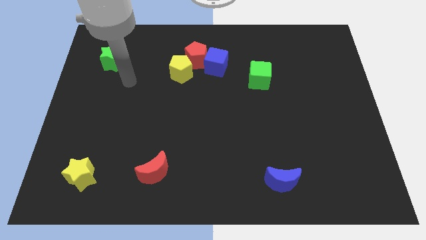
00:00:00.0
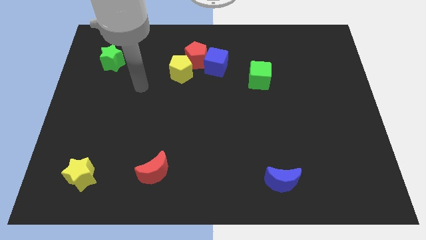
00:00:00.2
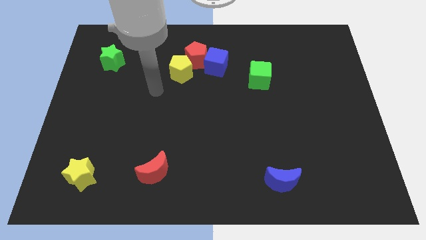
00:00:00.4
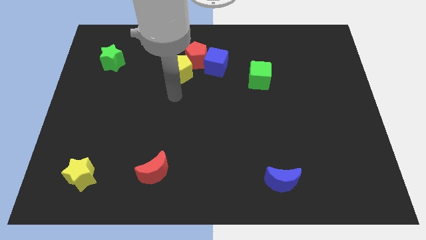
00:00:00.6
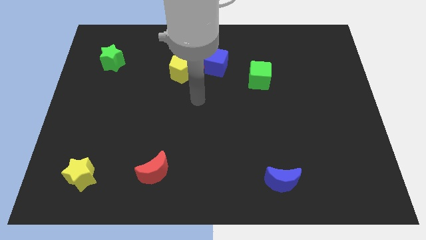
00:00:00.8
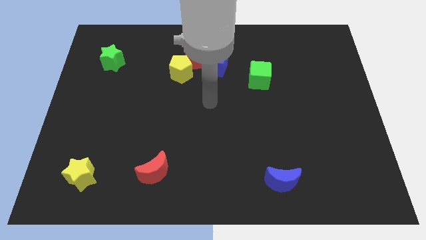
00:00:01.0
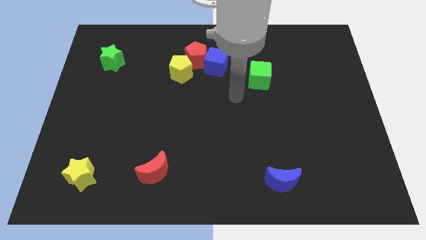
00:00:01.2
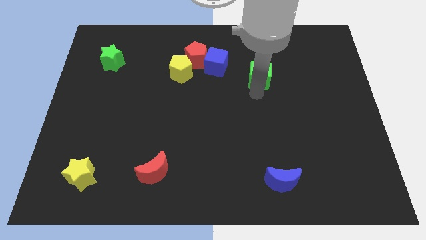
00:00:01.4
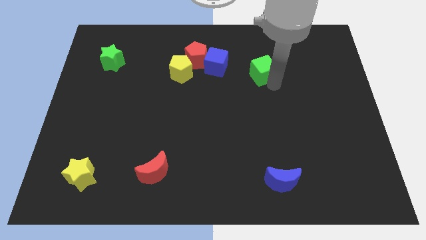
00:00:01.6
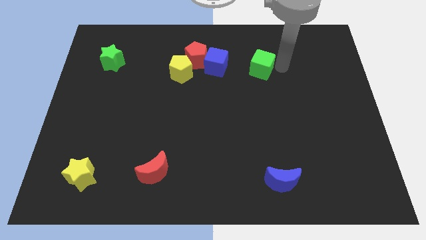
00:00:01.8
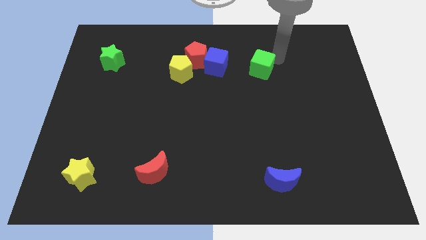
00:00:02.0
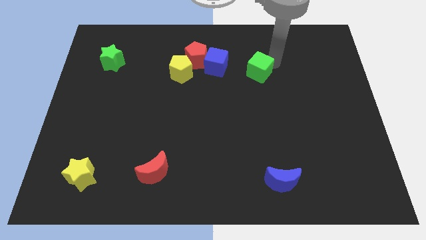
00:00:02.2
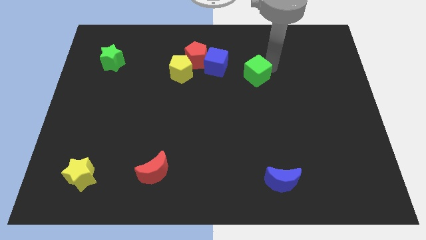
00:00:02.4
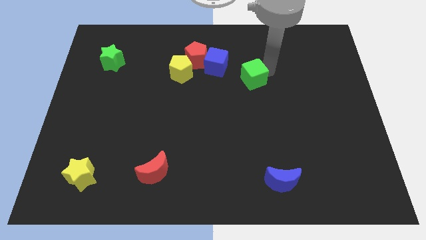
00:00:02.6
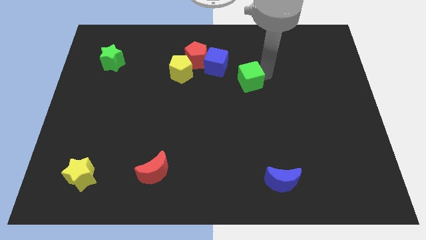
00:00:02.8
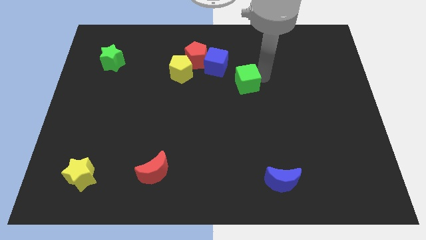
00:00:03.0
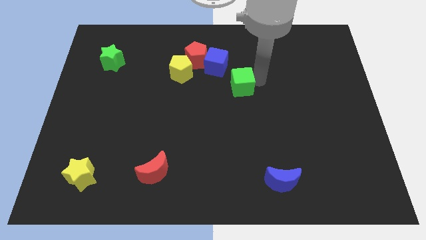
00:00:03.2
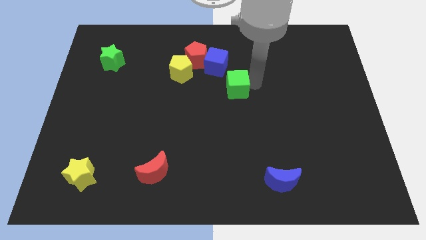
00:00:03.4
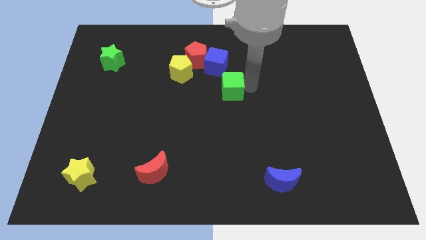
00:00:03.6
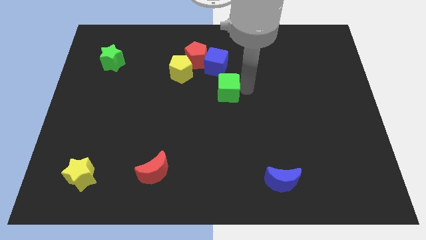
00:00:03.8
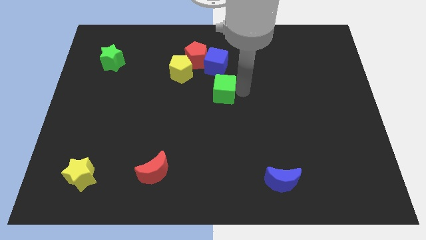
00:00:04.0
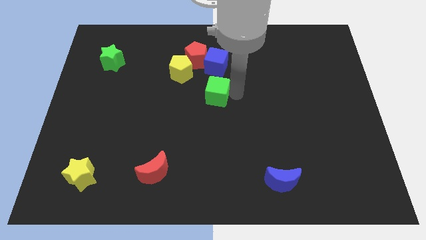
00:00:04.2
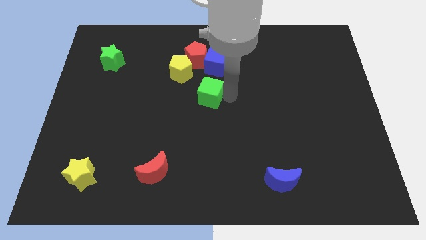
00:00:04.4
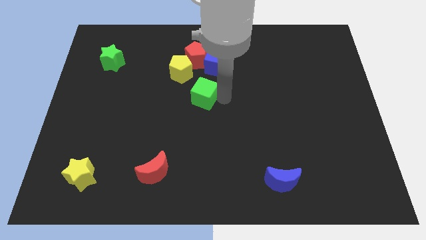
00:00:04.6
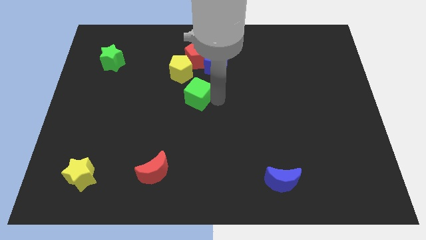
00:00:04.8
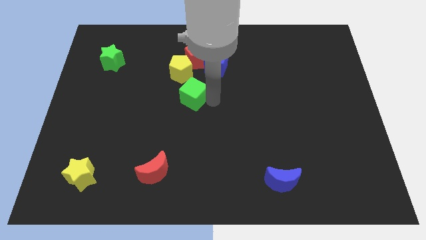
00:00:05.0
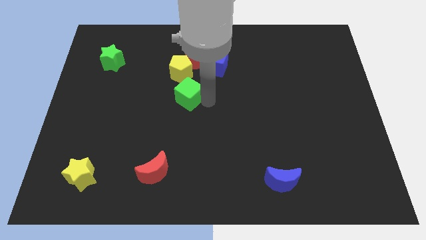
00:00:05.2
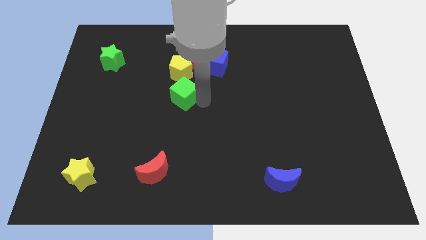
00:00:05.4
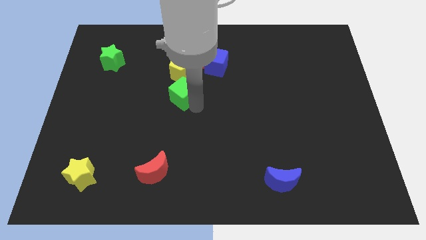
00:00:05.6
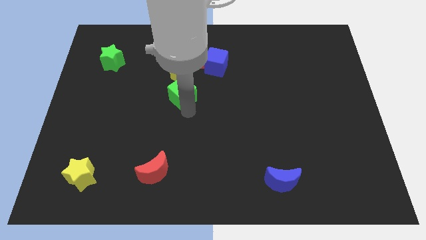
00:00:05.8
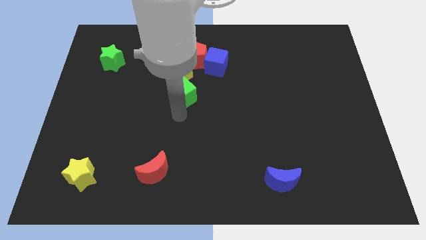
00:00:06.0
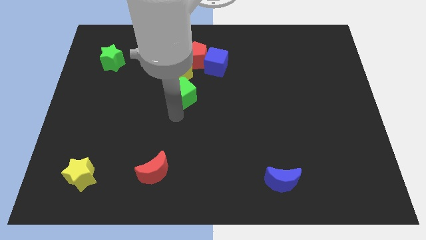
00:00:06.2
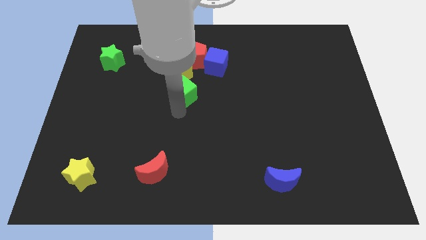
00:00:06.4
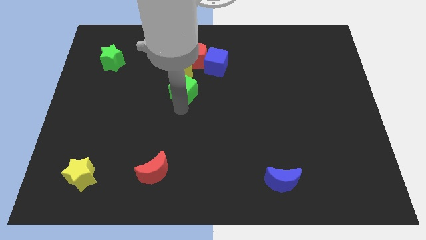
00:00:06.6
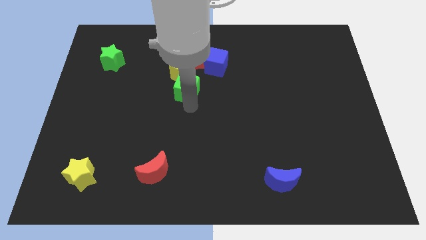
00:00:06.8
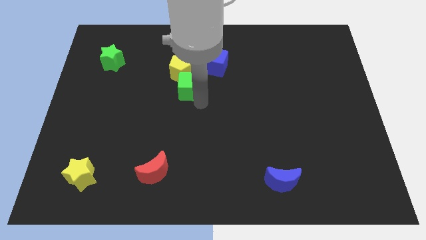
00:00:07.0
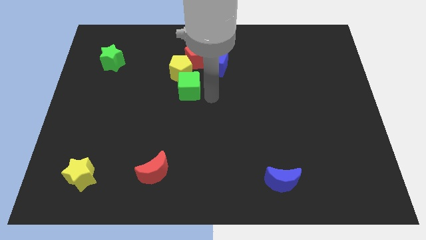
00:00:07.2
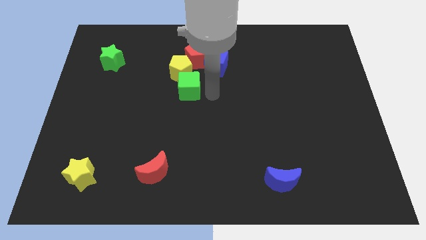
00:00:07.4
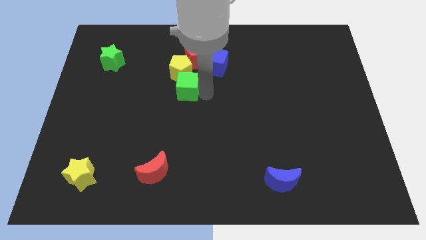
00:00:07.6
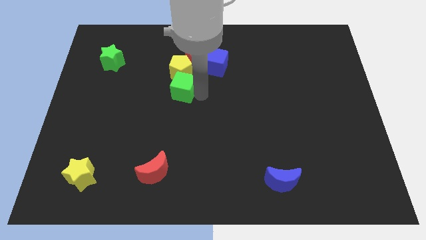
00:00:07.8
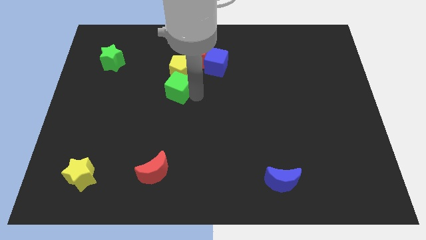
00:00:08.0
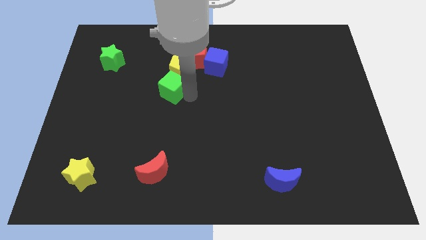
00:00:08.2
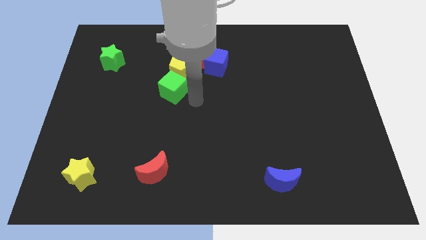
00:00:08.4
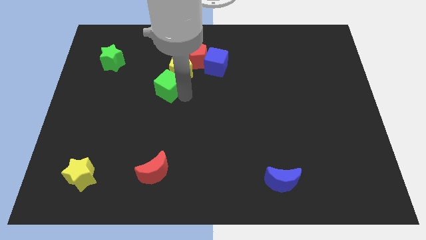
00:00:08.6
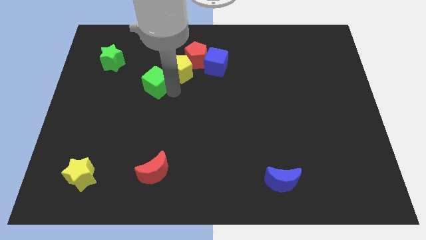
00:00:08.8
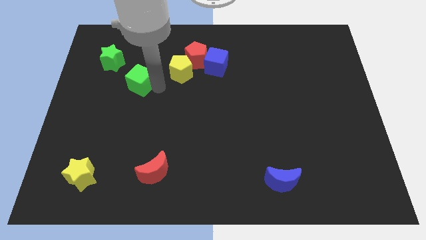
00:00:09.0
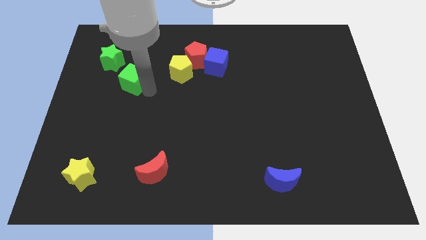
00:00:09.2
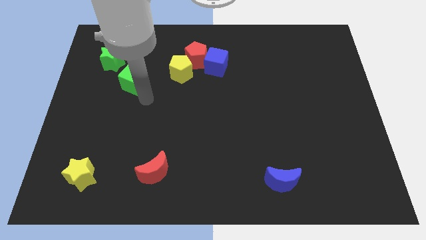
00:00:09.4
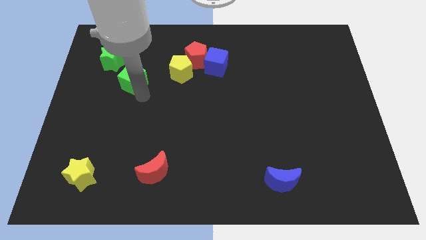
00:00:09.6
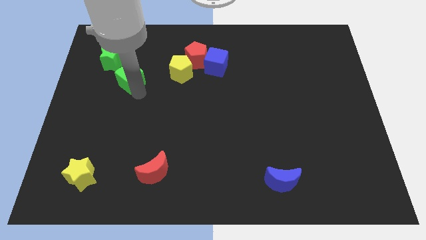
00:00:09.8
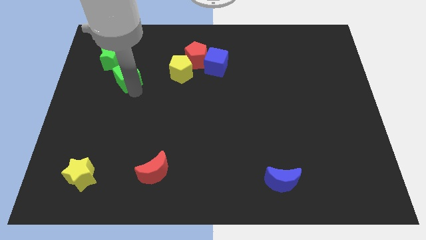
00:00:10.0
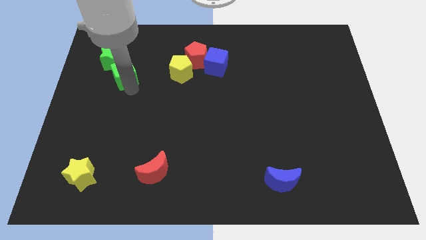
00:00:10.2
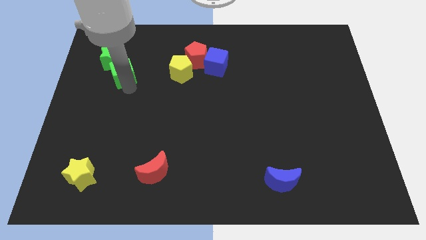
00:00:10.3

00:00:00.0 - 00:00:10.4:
slide the green cube next to the green star

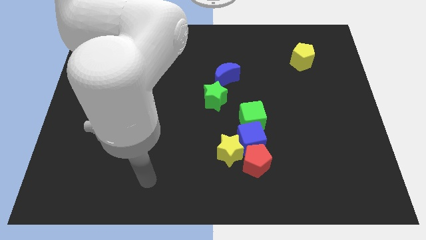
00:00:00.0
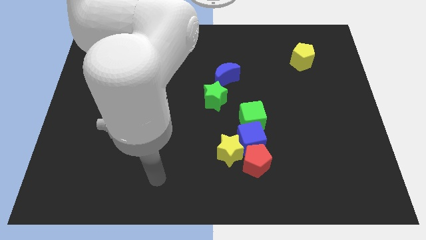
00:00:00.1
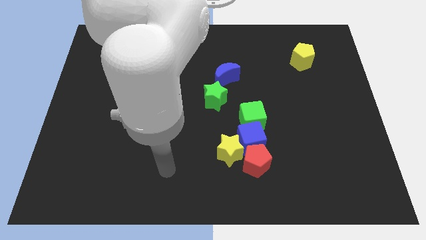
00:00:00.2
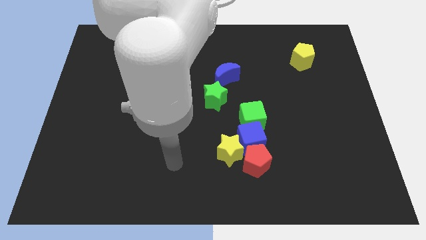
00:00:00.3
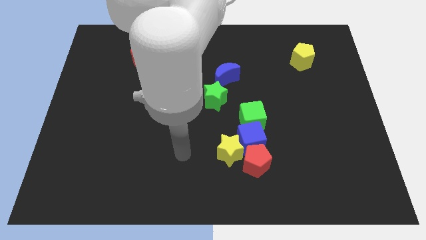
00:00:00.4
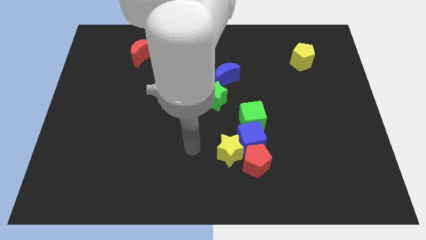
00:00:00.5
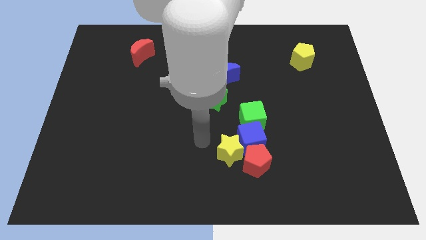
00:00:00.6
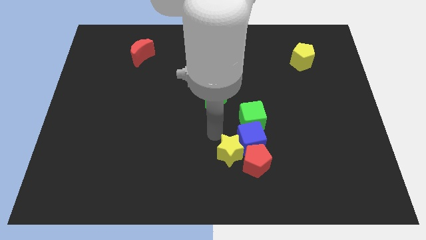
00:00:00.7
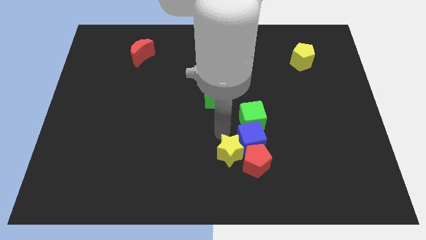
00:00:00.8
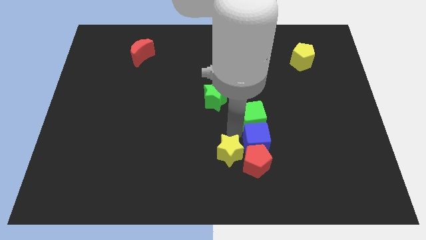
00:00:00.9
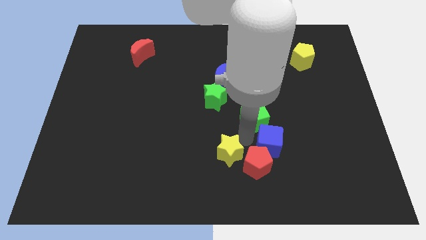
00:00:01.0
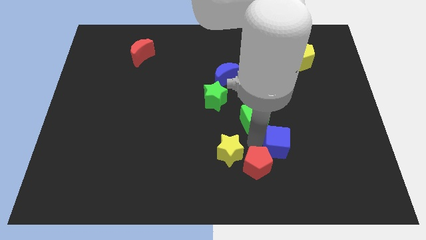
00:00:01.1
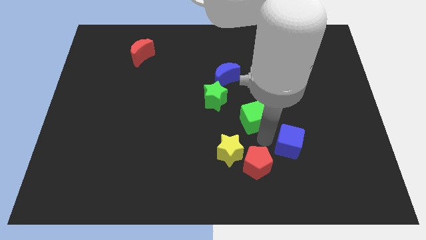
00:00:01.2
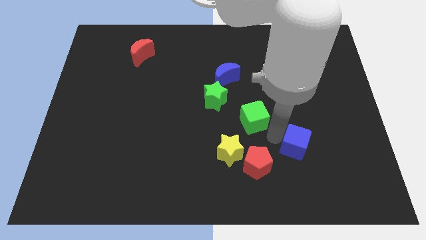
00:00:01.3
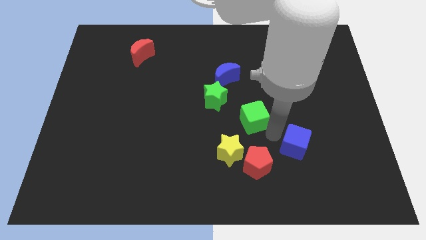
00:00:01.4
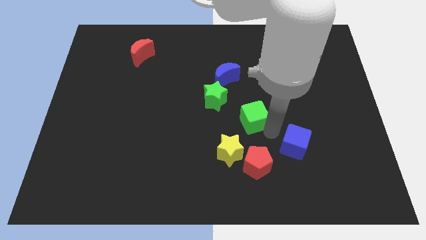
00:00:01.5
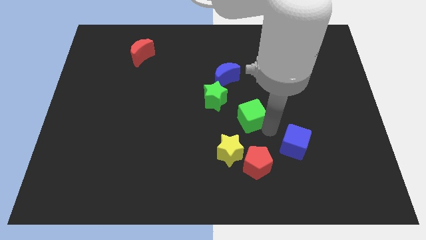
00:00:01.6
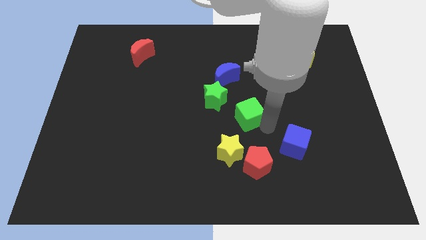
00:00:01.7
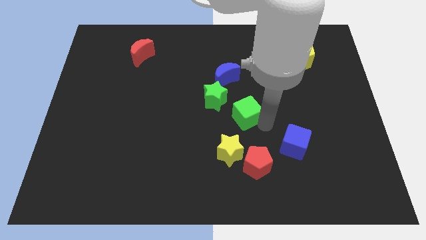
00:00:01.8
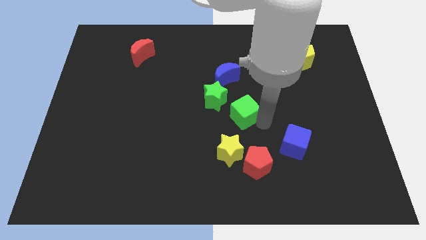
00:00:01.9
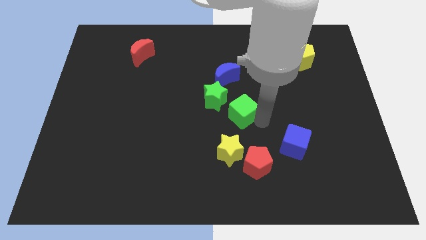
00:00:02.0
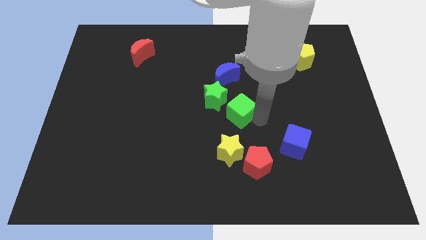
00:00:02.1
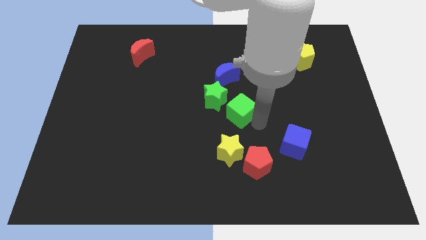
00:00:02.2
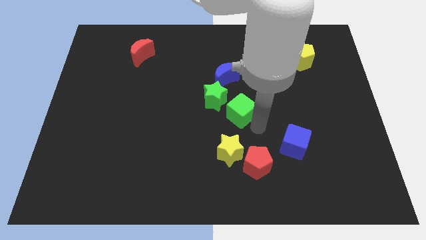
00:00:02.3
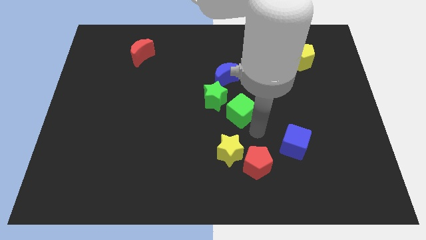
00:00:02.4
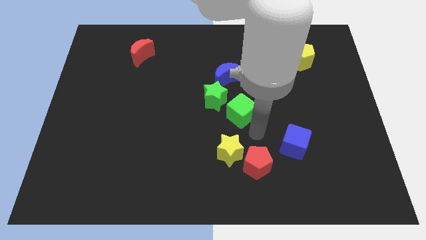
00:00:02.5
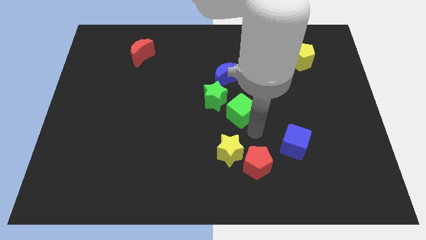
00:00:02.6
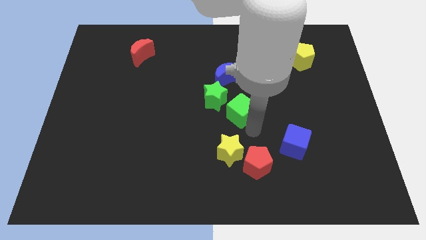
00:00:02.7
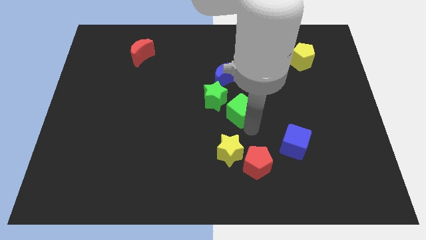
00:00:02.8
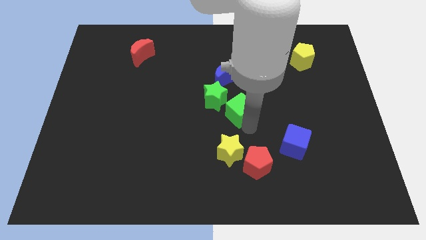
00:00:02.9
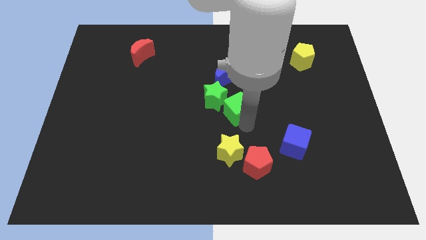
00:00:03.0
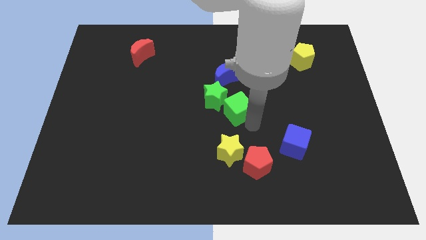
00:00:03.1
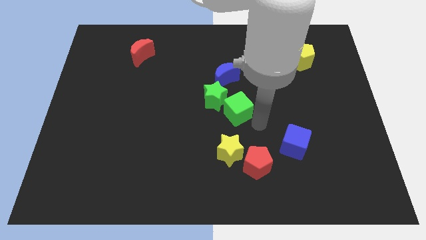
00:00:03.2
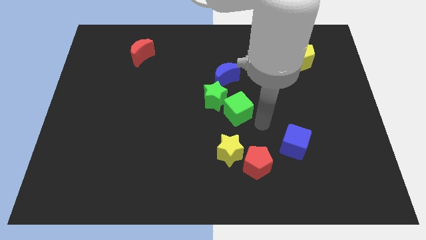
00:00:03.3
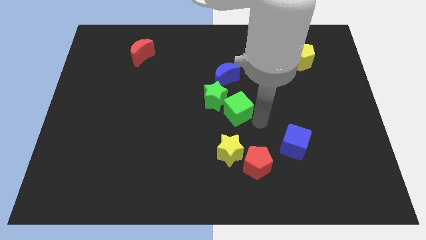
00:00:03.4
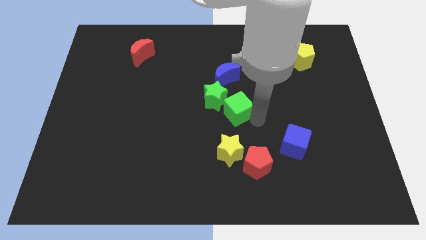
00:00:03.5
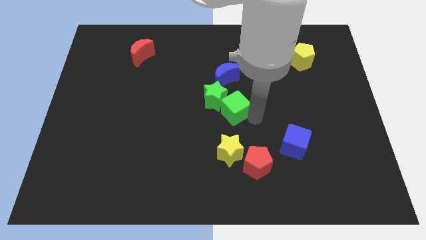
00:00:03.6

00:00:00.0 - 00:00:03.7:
push the green cube next to the green star
